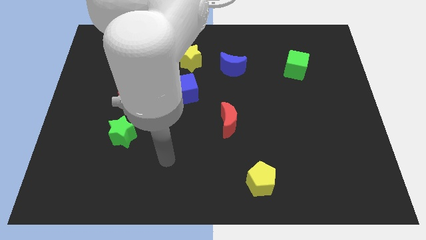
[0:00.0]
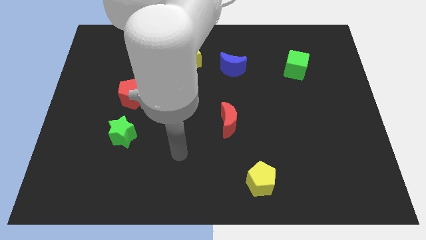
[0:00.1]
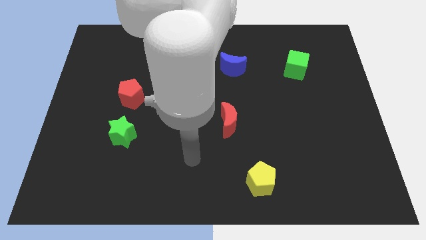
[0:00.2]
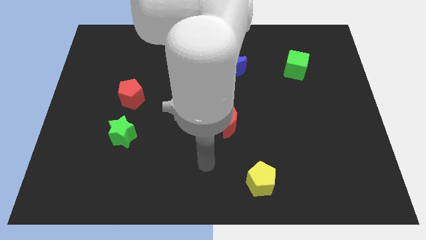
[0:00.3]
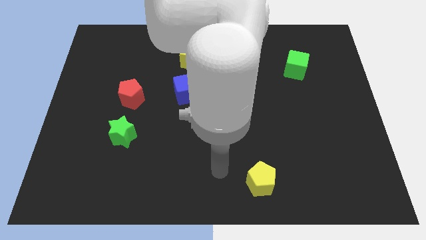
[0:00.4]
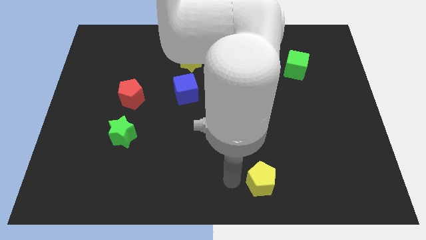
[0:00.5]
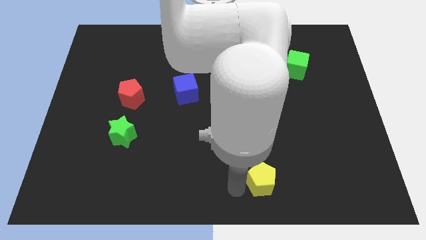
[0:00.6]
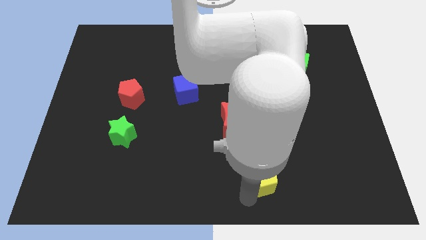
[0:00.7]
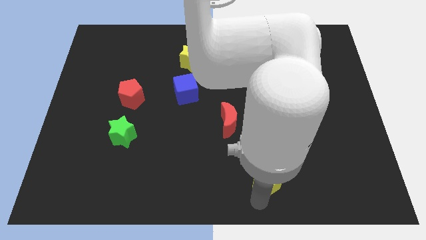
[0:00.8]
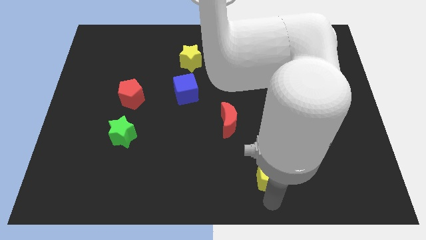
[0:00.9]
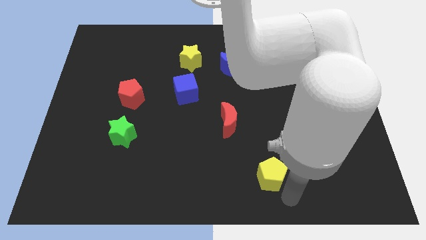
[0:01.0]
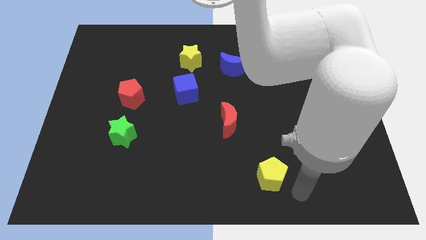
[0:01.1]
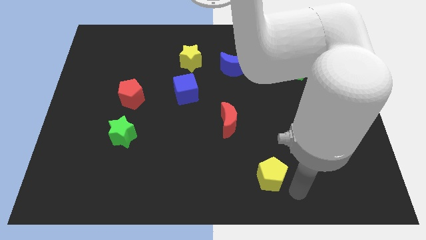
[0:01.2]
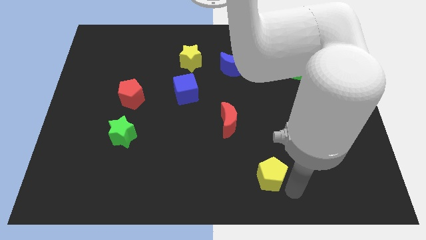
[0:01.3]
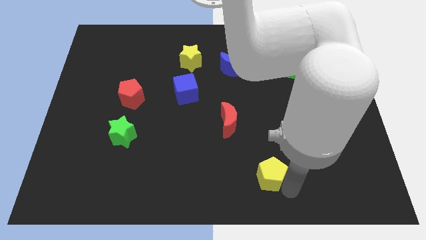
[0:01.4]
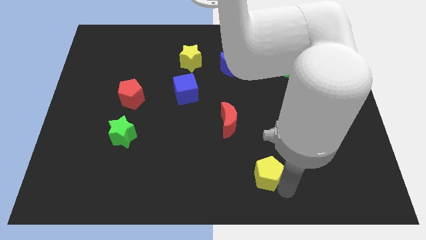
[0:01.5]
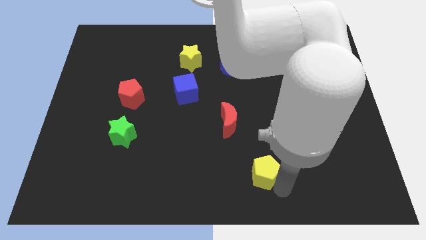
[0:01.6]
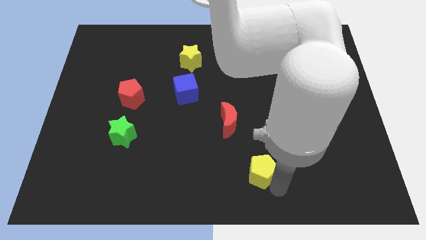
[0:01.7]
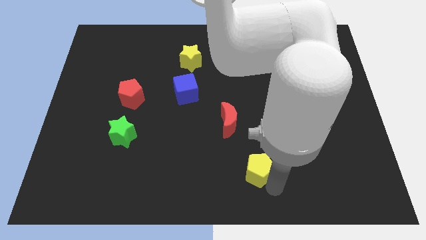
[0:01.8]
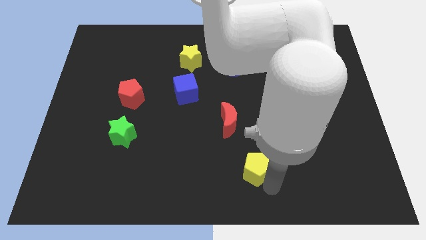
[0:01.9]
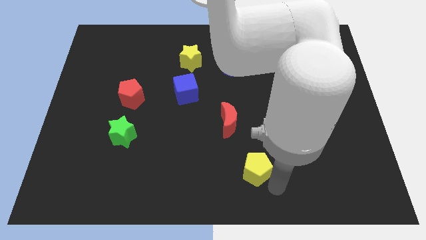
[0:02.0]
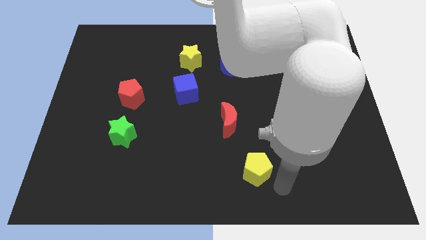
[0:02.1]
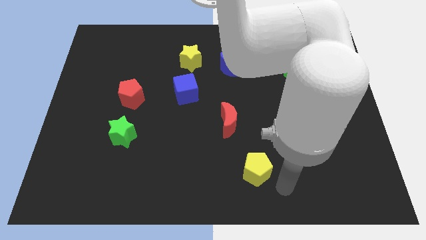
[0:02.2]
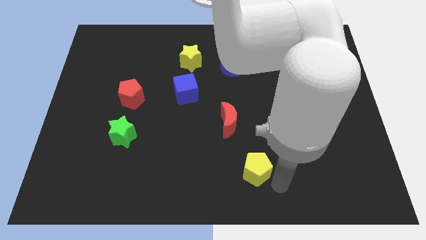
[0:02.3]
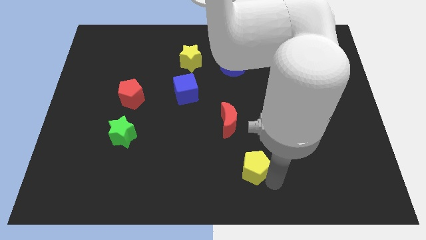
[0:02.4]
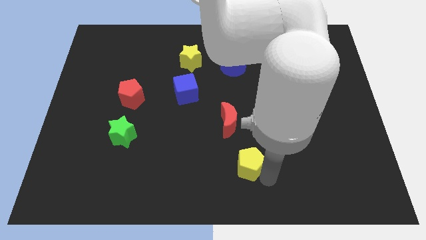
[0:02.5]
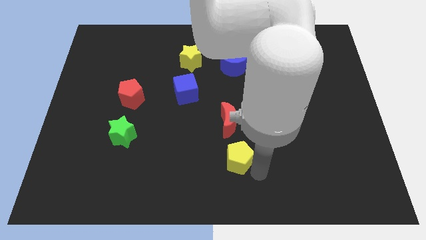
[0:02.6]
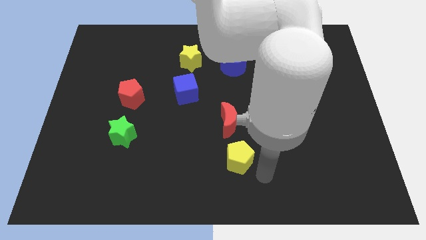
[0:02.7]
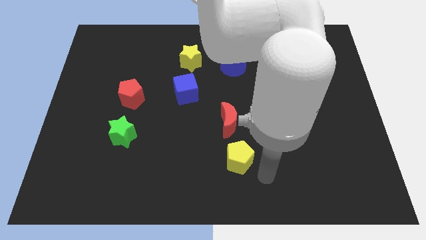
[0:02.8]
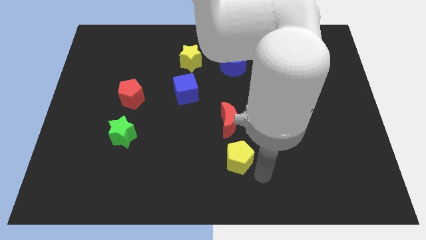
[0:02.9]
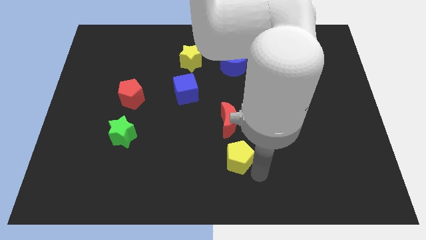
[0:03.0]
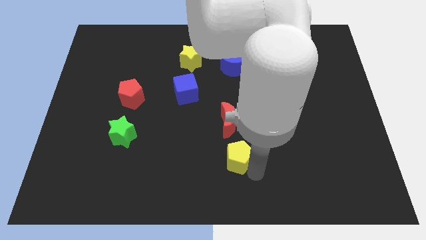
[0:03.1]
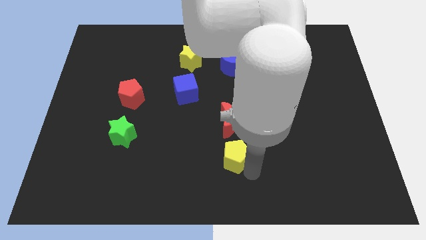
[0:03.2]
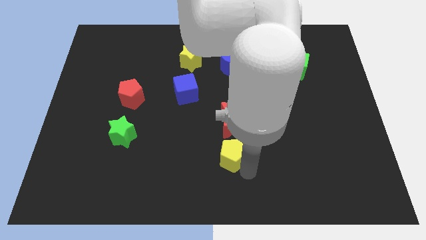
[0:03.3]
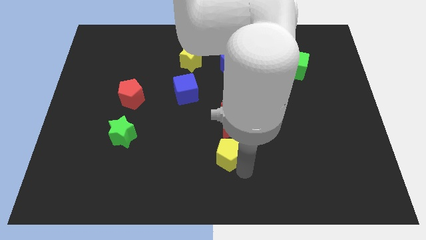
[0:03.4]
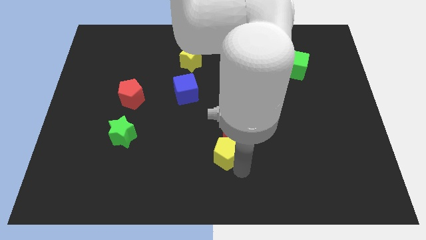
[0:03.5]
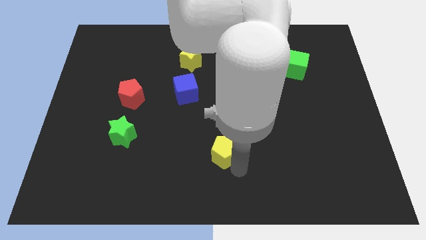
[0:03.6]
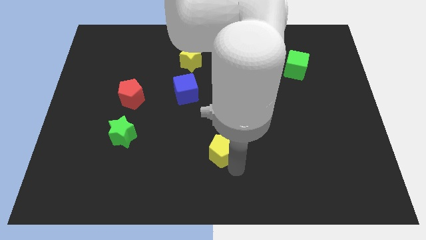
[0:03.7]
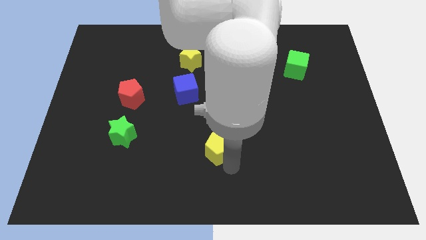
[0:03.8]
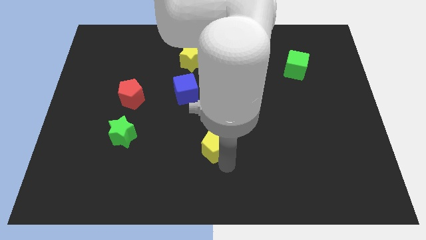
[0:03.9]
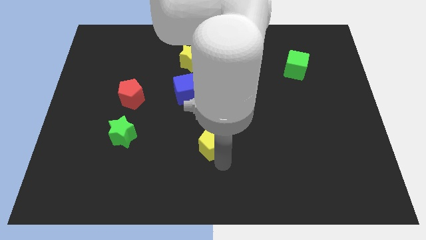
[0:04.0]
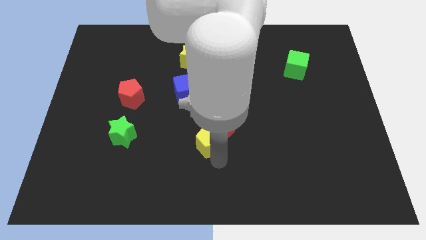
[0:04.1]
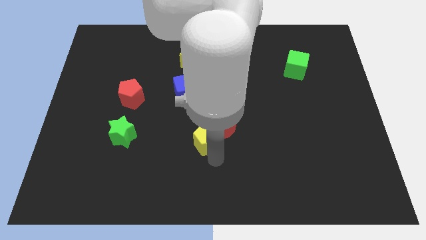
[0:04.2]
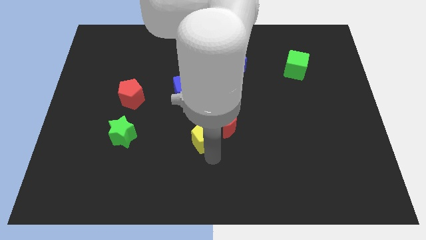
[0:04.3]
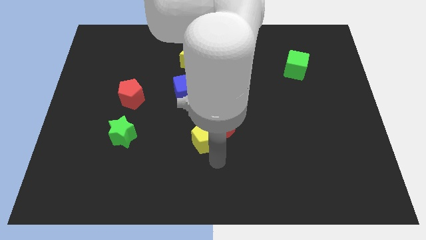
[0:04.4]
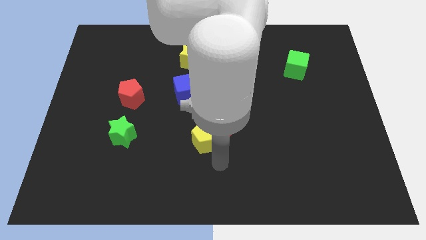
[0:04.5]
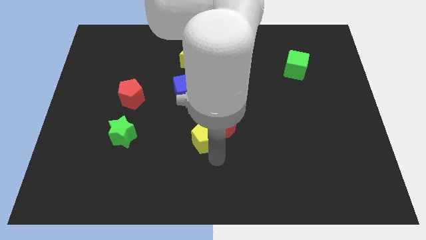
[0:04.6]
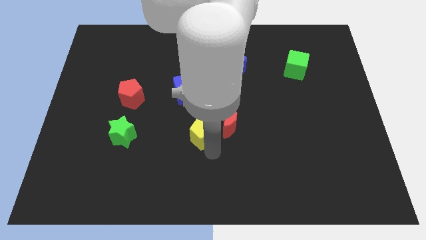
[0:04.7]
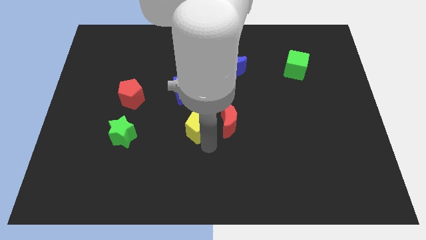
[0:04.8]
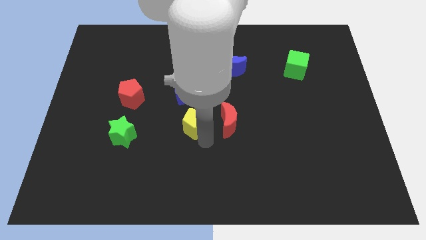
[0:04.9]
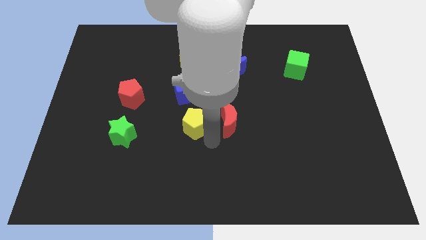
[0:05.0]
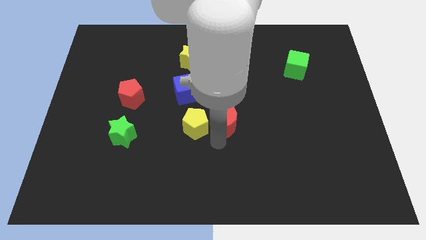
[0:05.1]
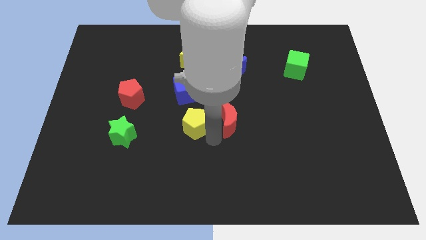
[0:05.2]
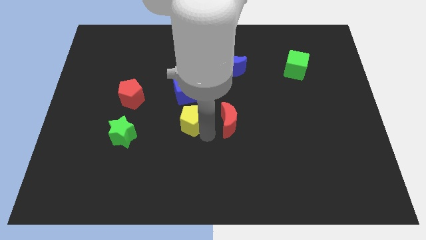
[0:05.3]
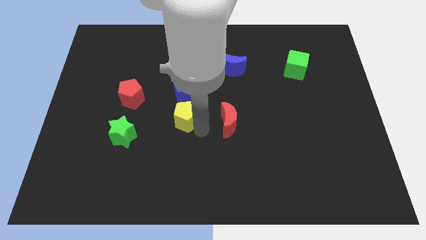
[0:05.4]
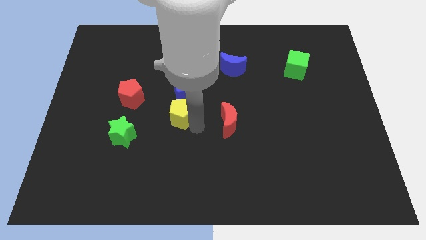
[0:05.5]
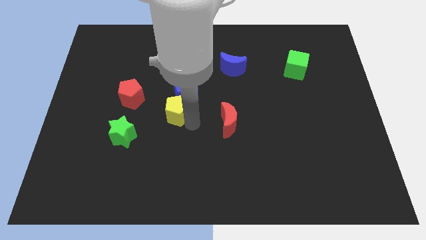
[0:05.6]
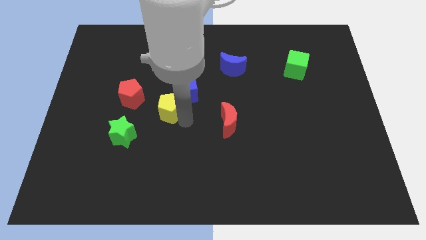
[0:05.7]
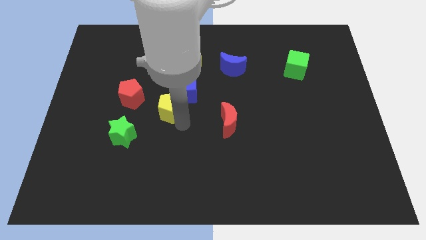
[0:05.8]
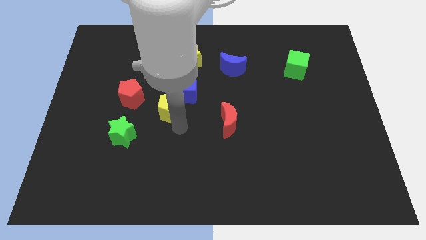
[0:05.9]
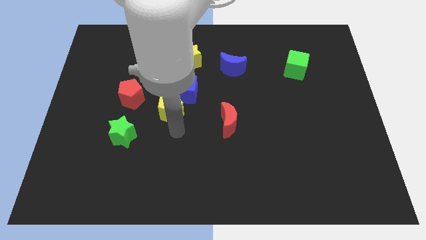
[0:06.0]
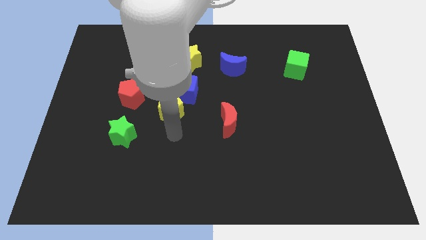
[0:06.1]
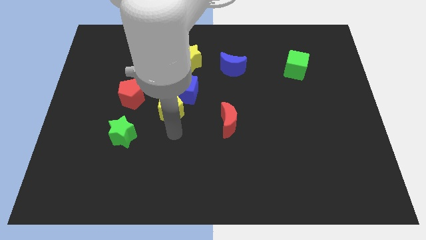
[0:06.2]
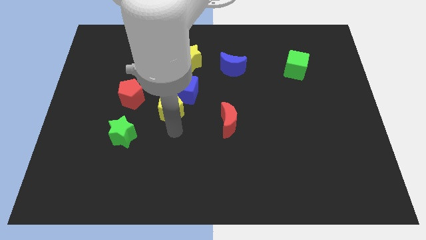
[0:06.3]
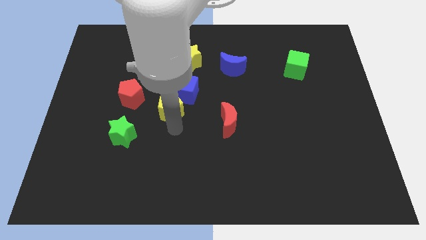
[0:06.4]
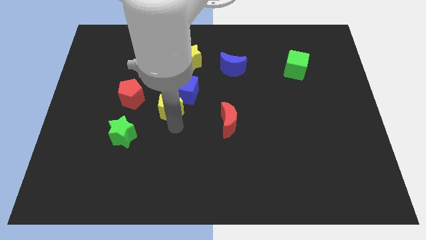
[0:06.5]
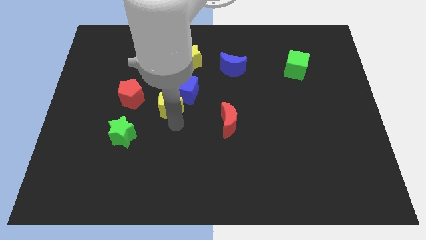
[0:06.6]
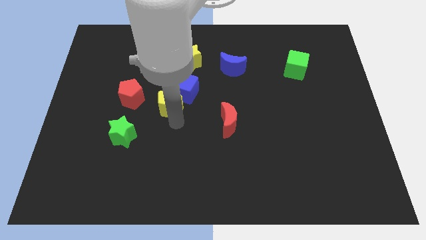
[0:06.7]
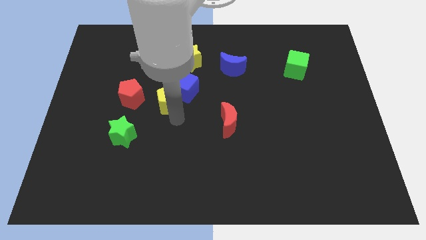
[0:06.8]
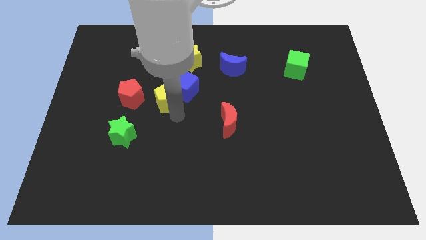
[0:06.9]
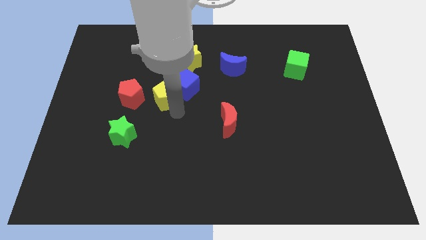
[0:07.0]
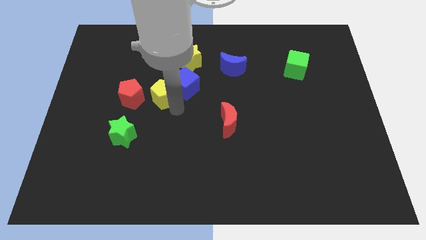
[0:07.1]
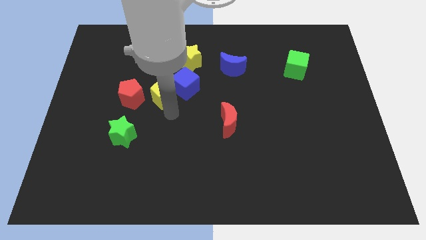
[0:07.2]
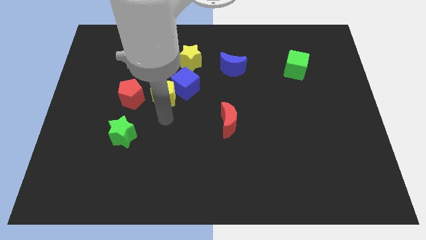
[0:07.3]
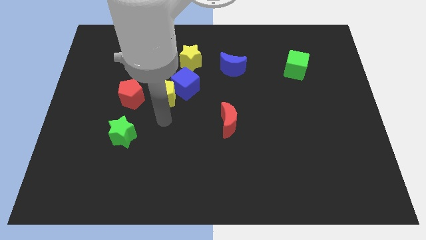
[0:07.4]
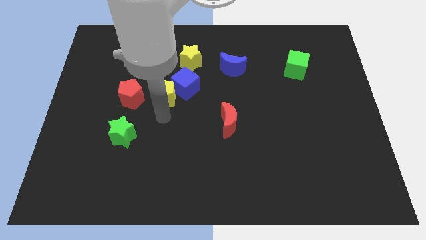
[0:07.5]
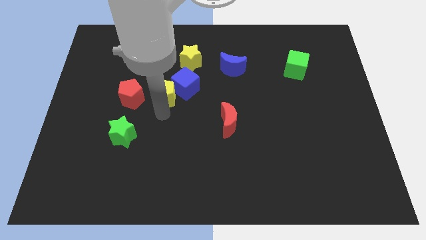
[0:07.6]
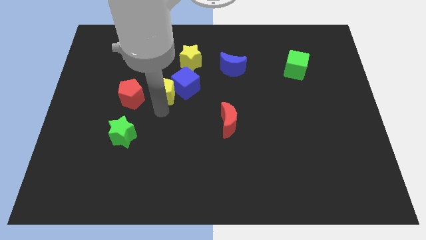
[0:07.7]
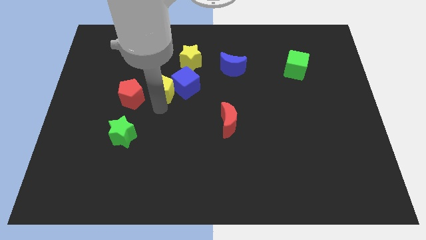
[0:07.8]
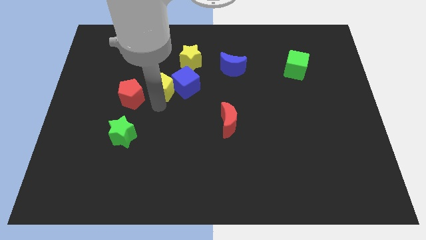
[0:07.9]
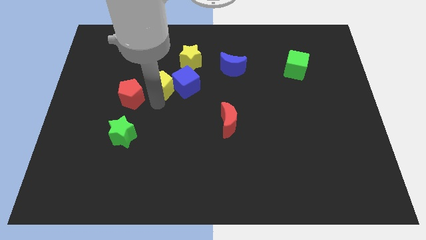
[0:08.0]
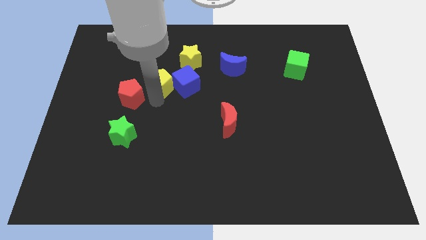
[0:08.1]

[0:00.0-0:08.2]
move the yellow pentagon to the top left of the blue cube
